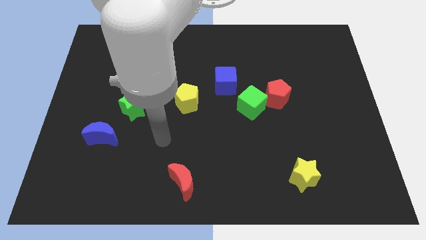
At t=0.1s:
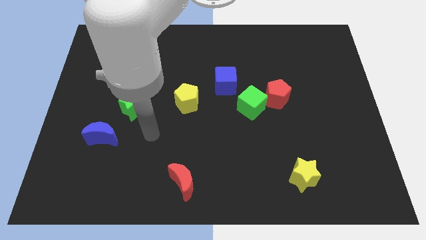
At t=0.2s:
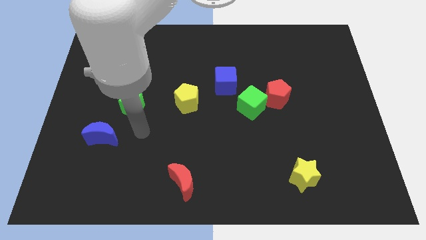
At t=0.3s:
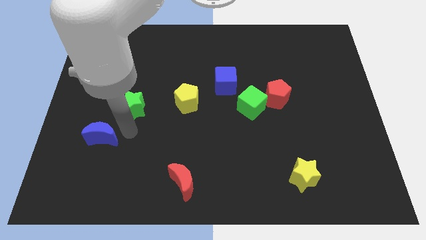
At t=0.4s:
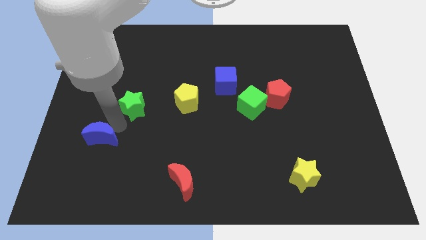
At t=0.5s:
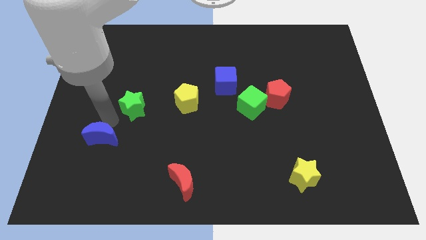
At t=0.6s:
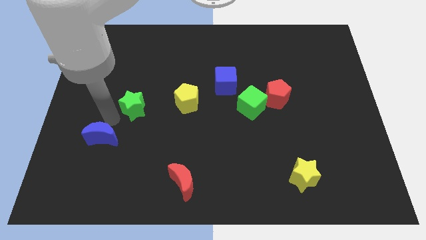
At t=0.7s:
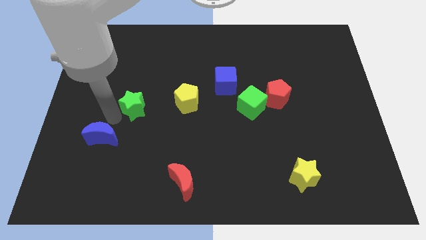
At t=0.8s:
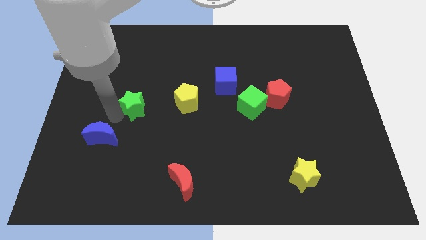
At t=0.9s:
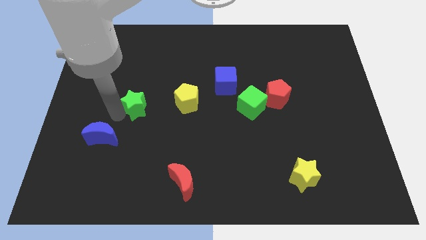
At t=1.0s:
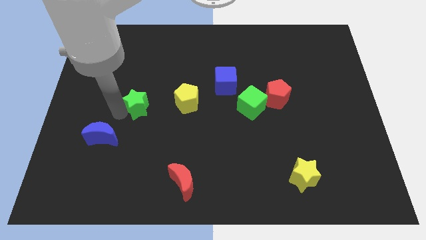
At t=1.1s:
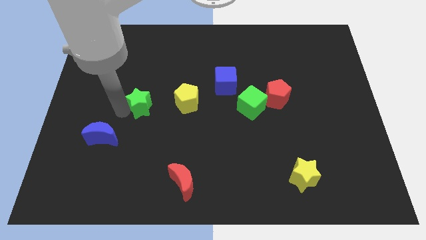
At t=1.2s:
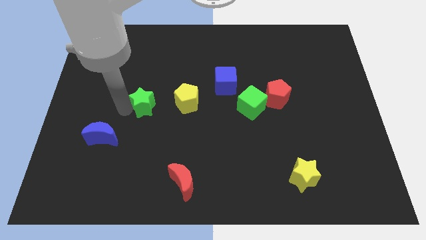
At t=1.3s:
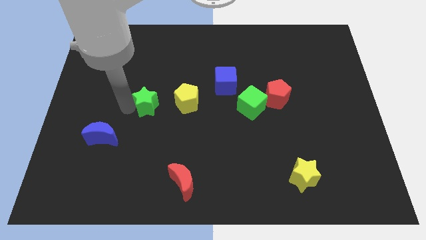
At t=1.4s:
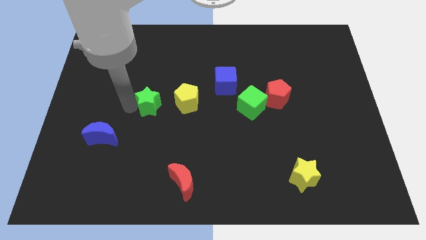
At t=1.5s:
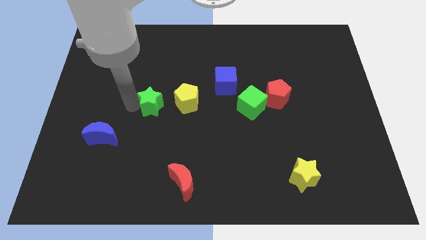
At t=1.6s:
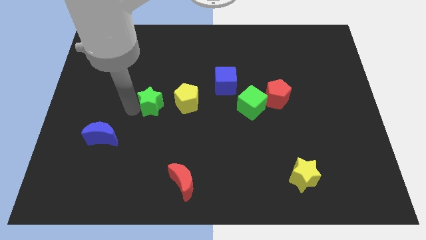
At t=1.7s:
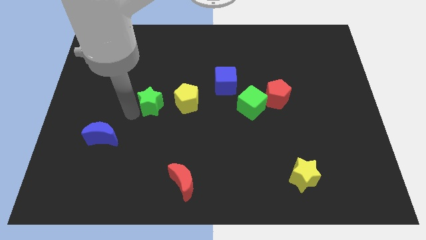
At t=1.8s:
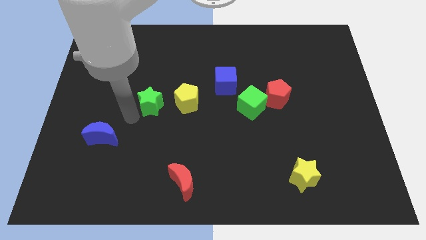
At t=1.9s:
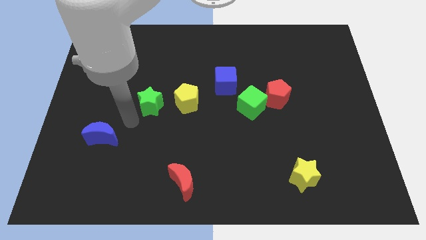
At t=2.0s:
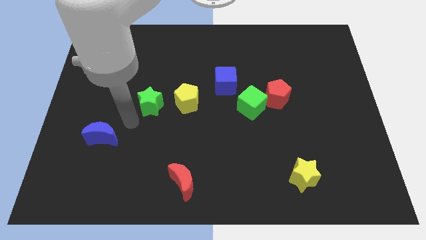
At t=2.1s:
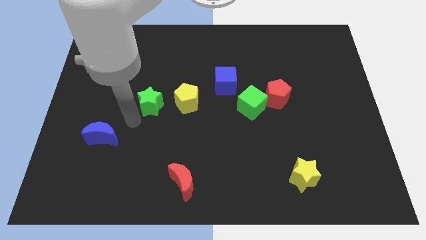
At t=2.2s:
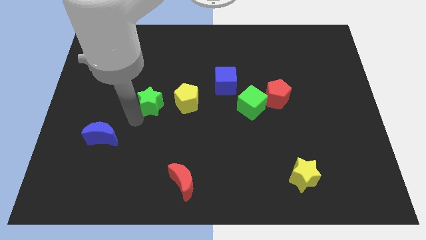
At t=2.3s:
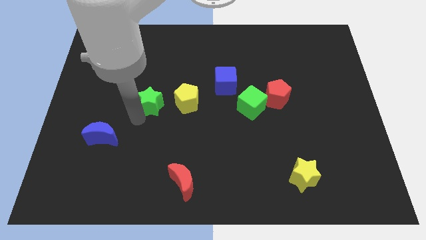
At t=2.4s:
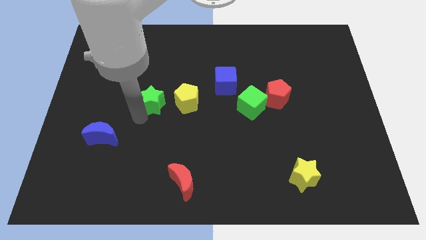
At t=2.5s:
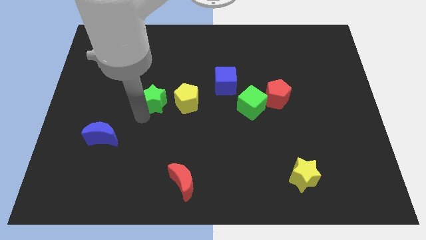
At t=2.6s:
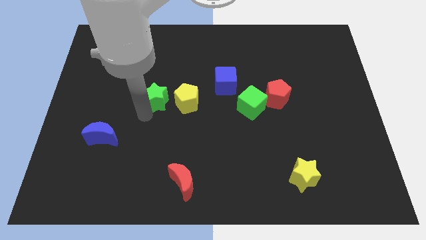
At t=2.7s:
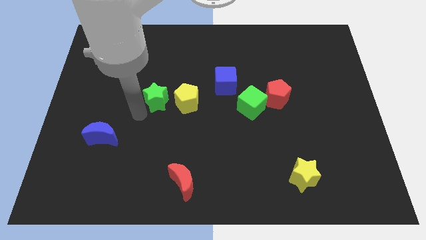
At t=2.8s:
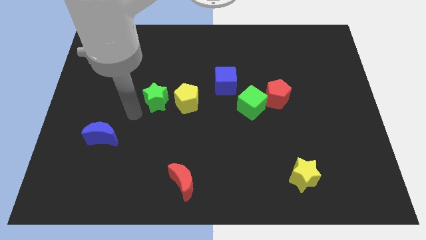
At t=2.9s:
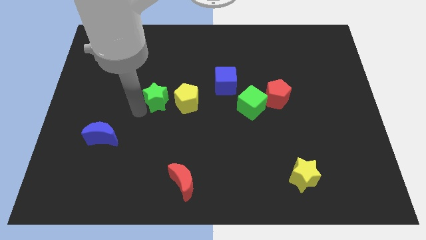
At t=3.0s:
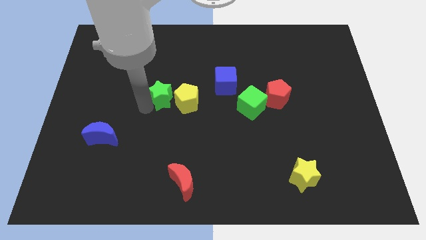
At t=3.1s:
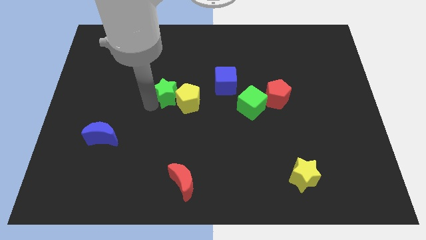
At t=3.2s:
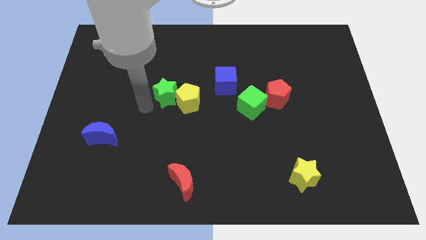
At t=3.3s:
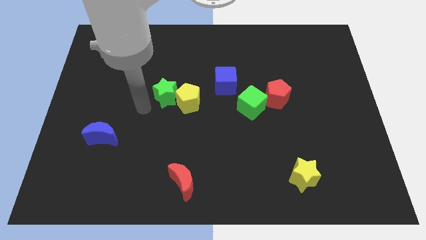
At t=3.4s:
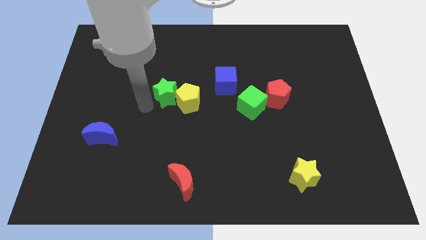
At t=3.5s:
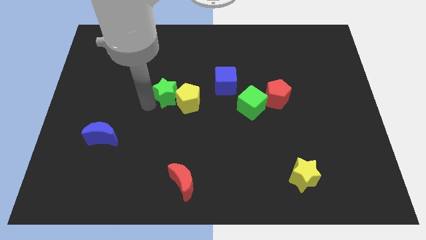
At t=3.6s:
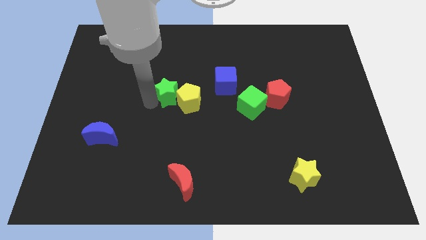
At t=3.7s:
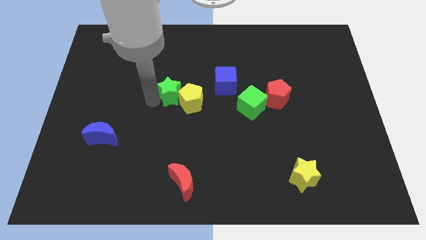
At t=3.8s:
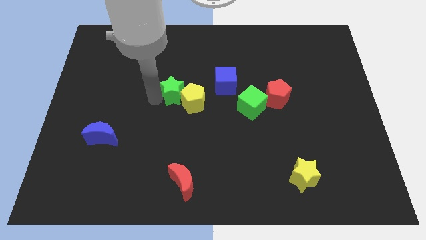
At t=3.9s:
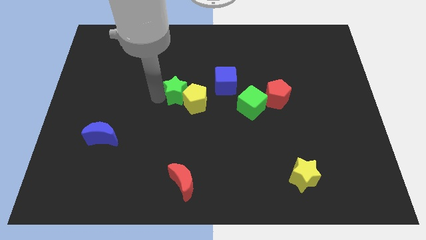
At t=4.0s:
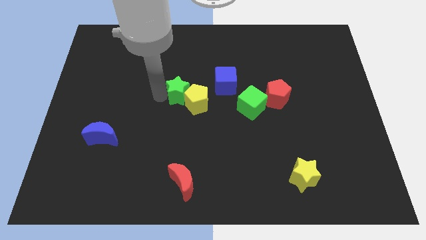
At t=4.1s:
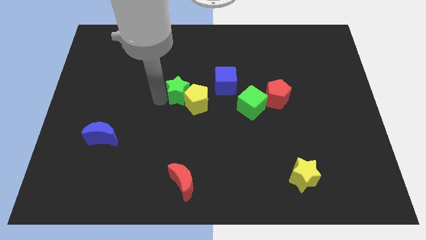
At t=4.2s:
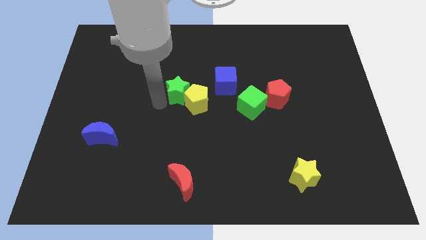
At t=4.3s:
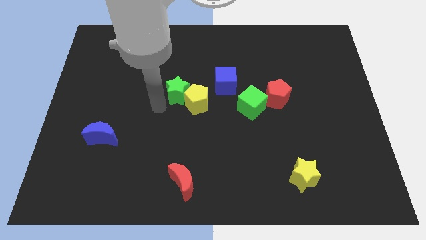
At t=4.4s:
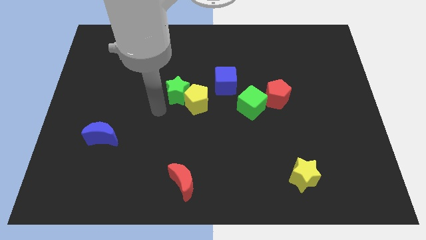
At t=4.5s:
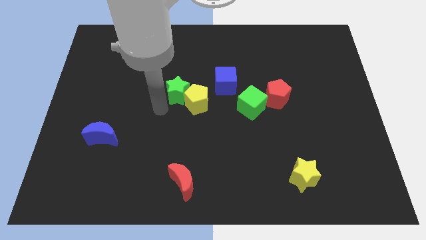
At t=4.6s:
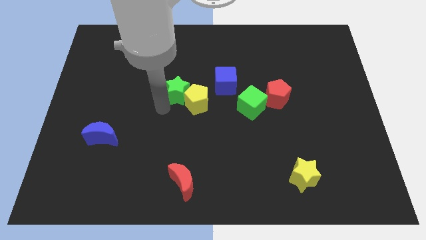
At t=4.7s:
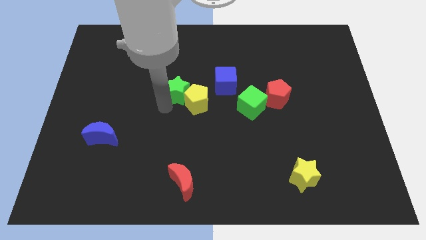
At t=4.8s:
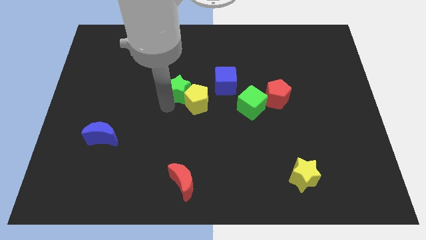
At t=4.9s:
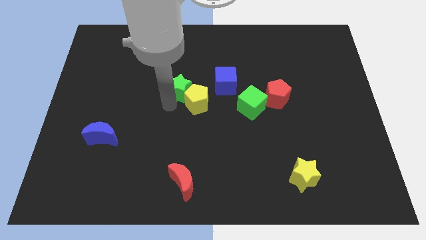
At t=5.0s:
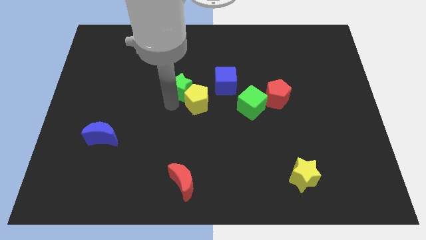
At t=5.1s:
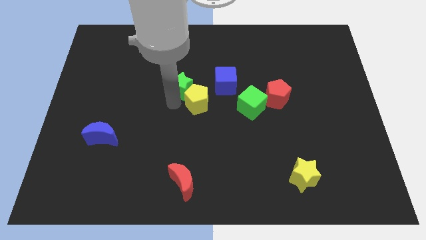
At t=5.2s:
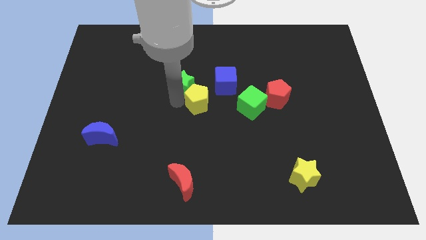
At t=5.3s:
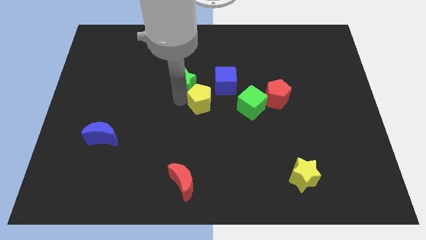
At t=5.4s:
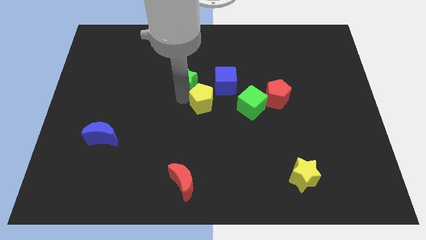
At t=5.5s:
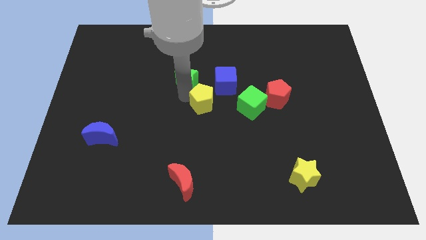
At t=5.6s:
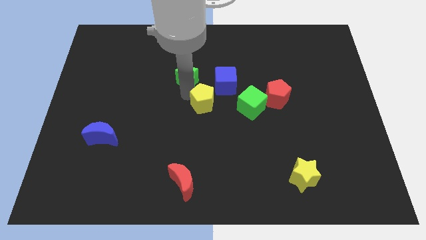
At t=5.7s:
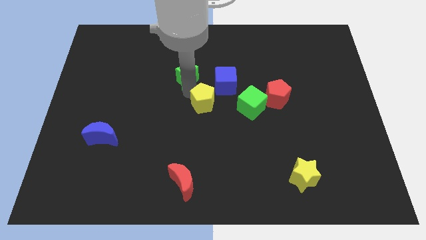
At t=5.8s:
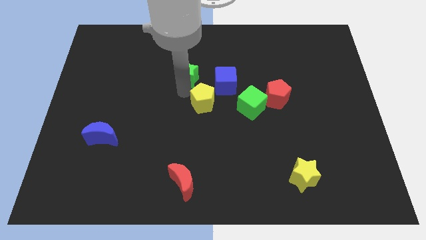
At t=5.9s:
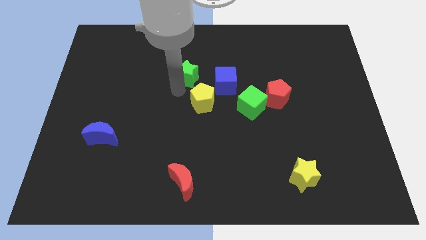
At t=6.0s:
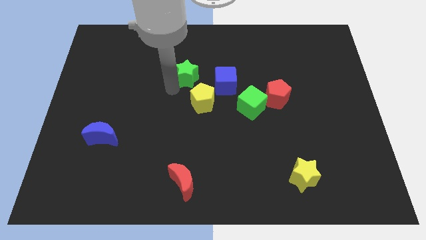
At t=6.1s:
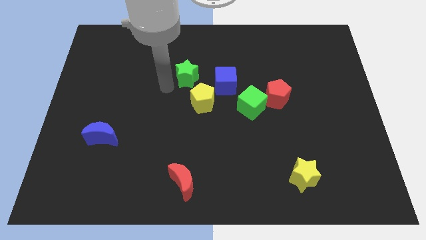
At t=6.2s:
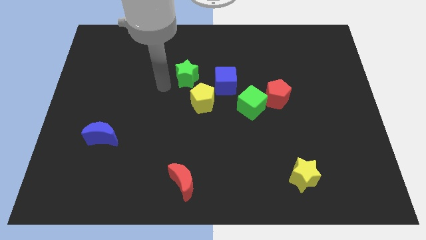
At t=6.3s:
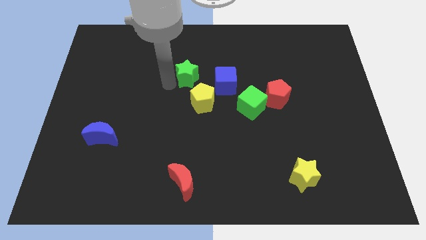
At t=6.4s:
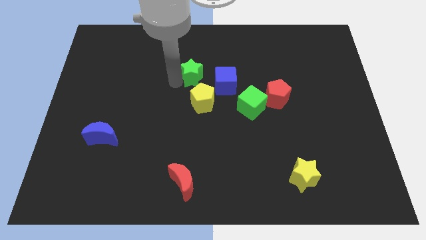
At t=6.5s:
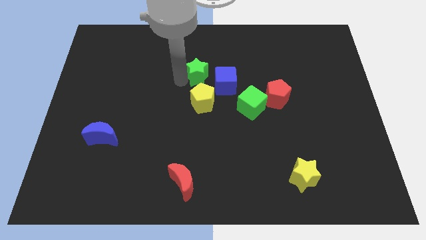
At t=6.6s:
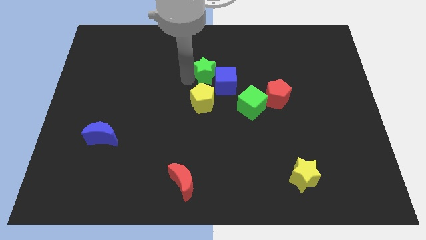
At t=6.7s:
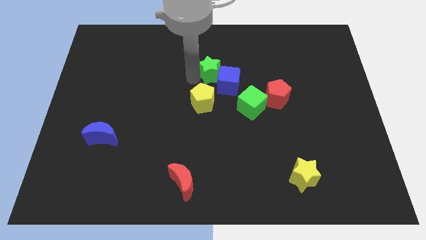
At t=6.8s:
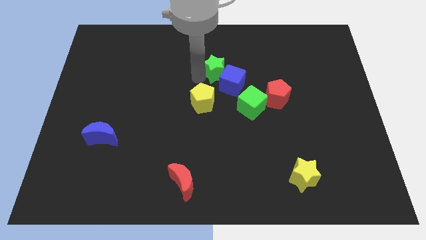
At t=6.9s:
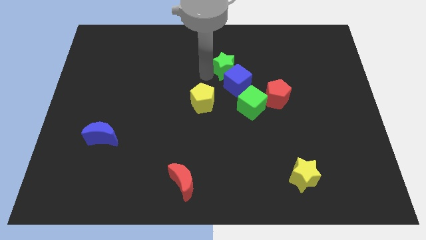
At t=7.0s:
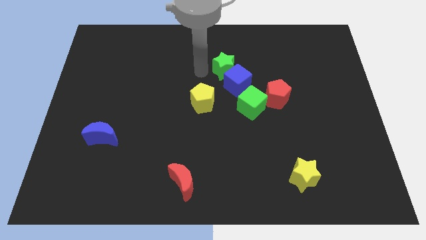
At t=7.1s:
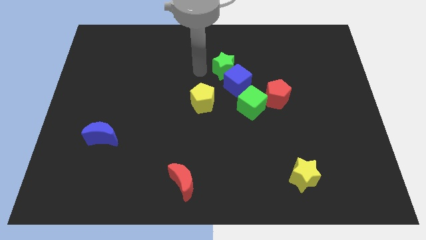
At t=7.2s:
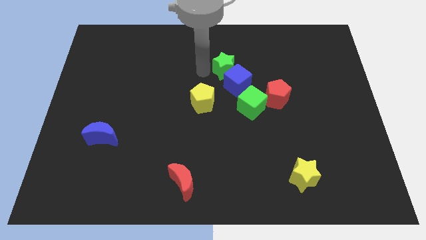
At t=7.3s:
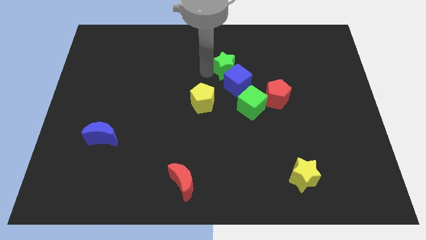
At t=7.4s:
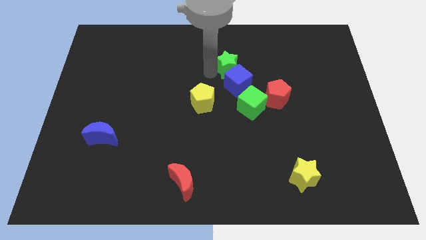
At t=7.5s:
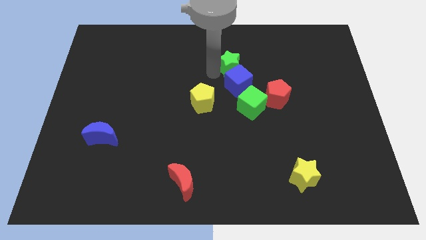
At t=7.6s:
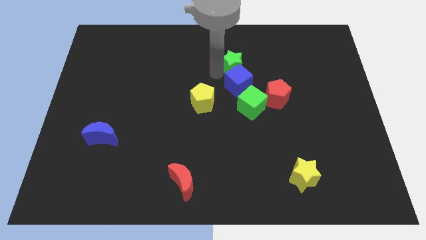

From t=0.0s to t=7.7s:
push the green star to the top right side of the blue cube
